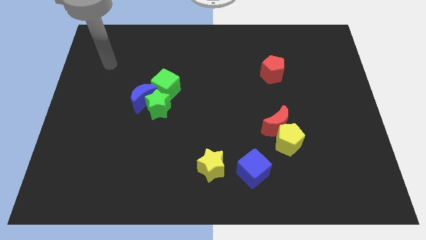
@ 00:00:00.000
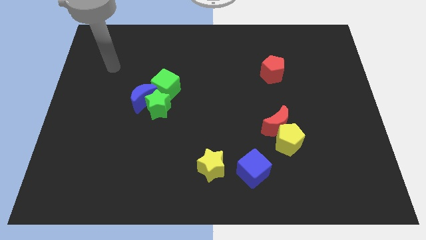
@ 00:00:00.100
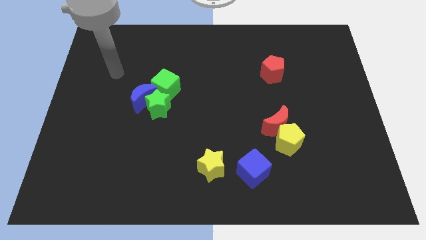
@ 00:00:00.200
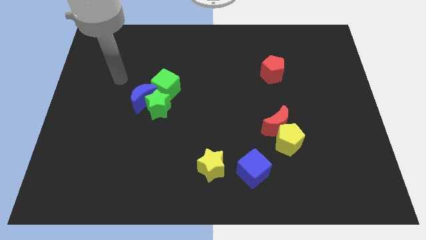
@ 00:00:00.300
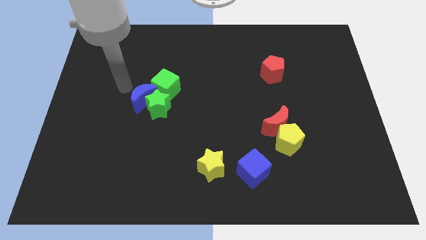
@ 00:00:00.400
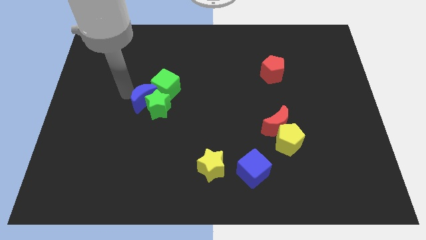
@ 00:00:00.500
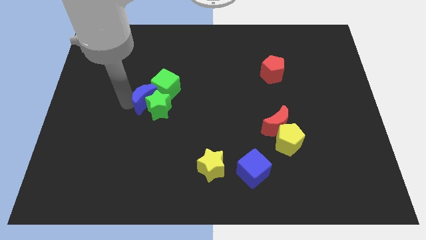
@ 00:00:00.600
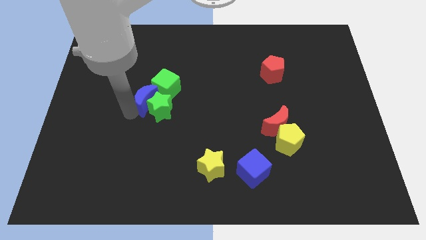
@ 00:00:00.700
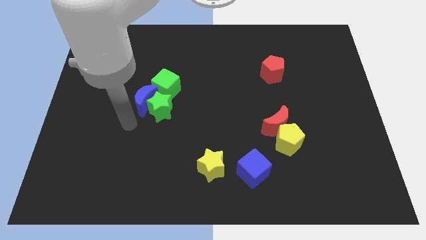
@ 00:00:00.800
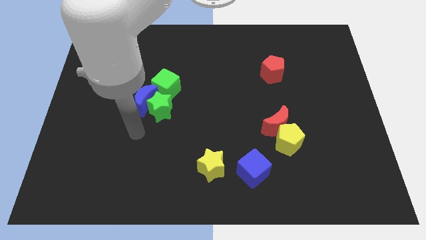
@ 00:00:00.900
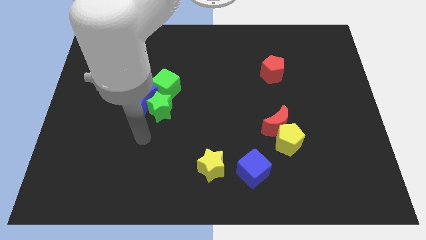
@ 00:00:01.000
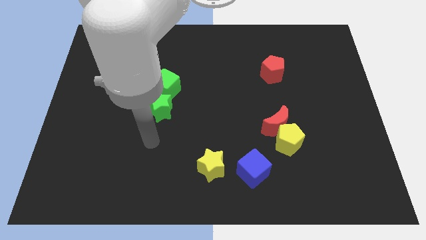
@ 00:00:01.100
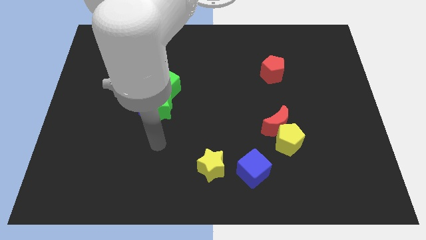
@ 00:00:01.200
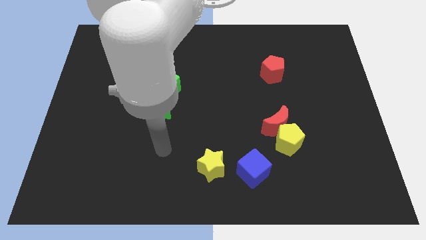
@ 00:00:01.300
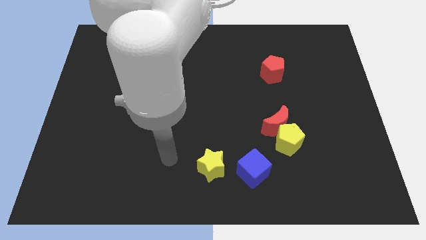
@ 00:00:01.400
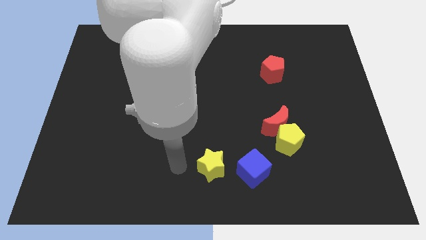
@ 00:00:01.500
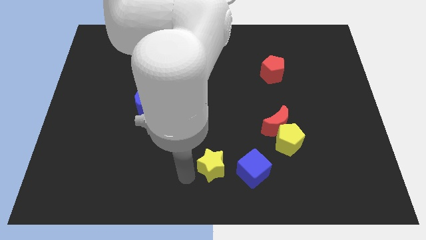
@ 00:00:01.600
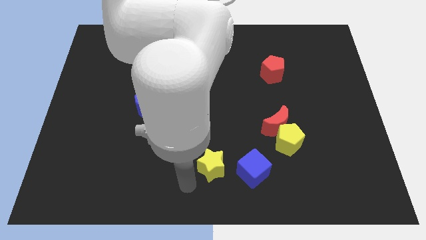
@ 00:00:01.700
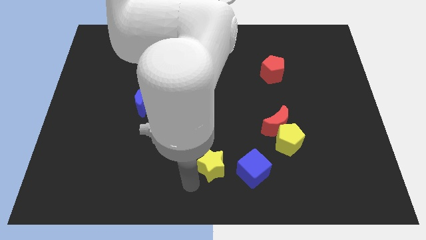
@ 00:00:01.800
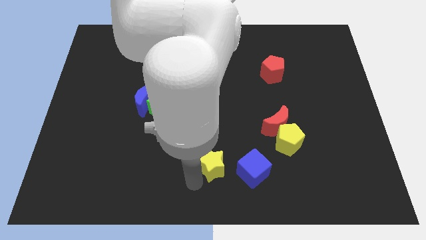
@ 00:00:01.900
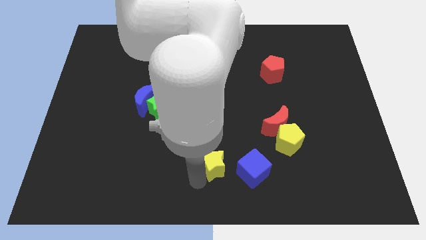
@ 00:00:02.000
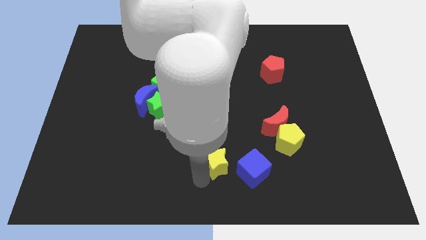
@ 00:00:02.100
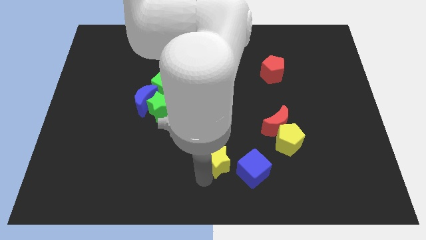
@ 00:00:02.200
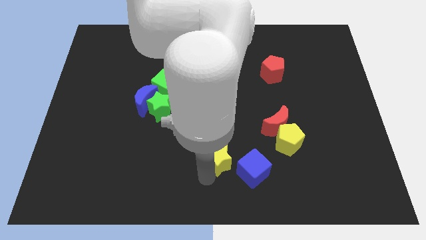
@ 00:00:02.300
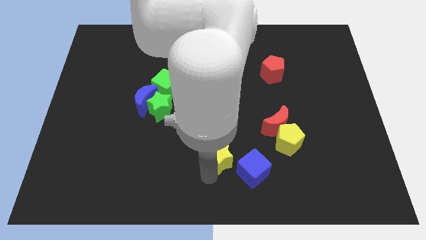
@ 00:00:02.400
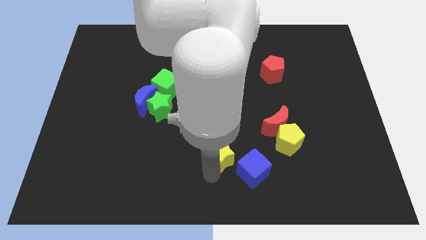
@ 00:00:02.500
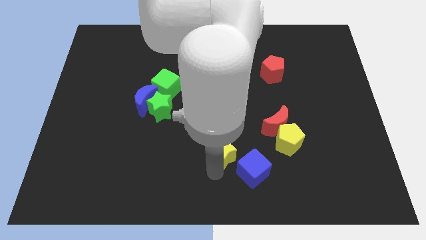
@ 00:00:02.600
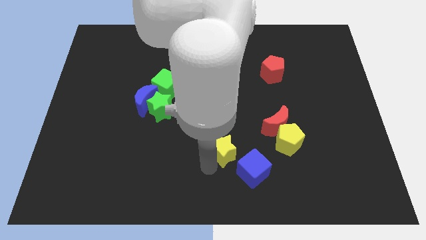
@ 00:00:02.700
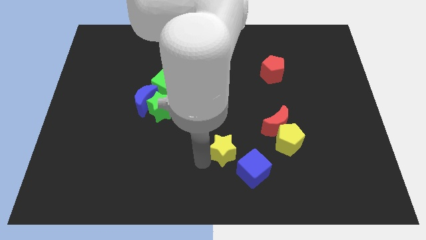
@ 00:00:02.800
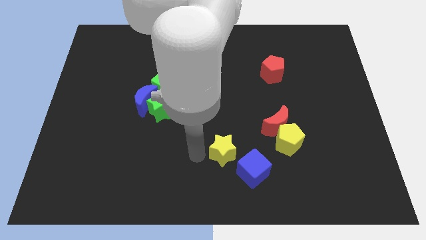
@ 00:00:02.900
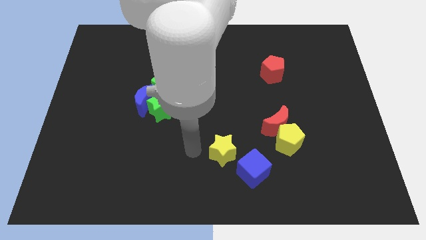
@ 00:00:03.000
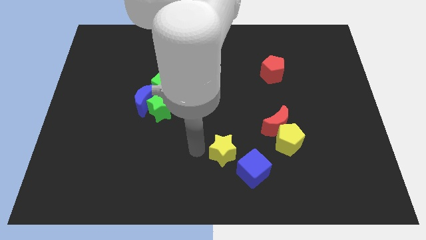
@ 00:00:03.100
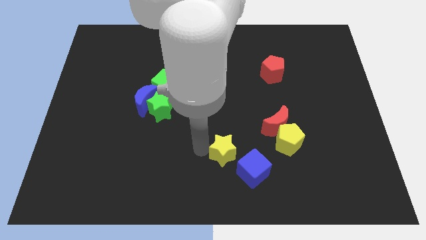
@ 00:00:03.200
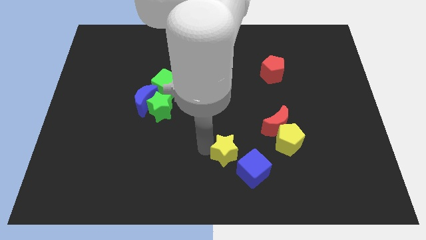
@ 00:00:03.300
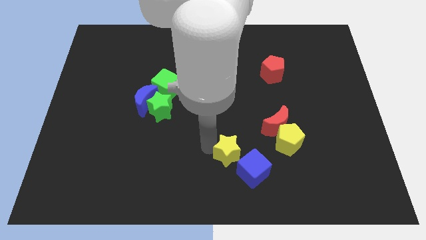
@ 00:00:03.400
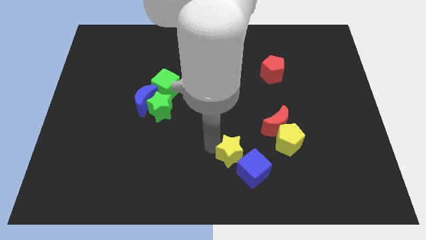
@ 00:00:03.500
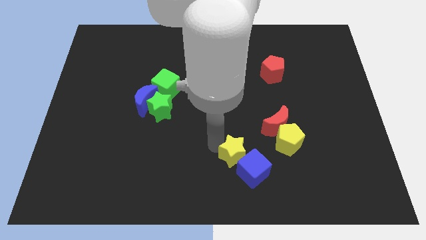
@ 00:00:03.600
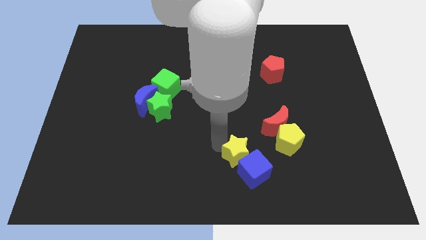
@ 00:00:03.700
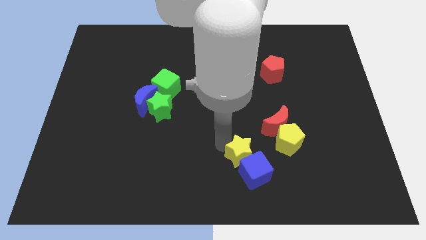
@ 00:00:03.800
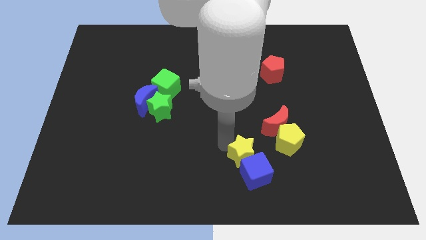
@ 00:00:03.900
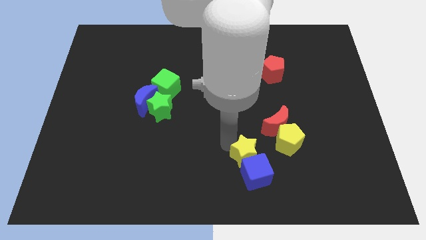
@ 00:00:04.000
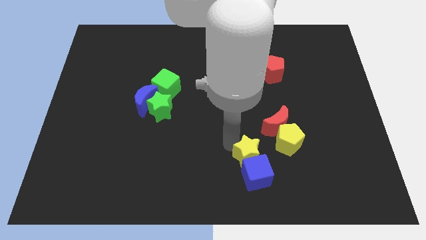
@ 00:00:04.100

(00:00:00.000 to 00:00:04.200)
push the yellow star to the right a bit

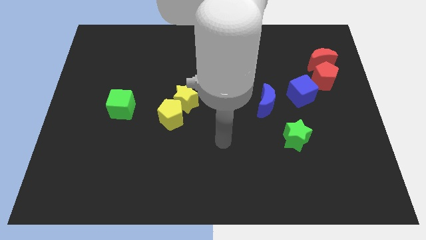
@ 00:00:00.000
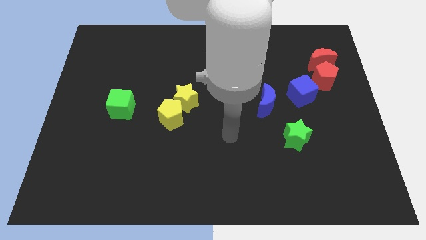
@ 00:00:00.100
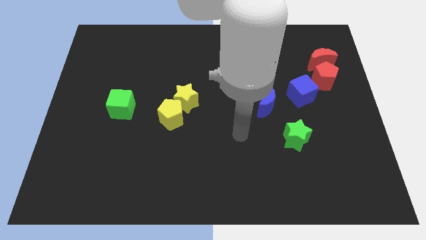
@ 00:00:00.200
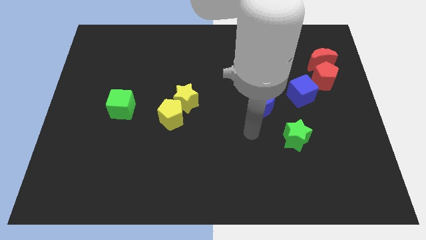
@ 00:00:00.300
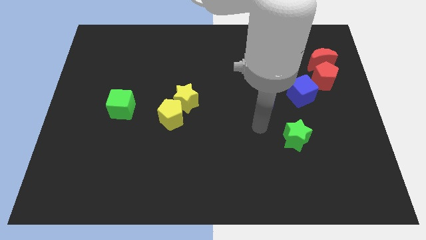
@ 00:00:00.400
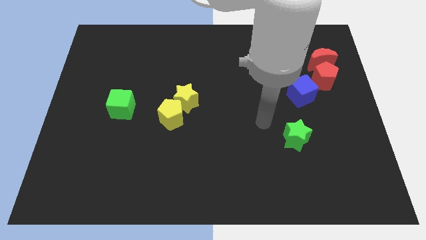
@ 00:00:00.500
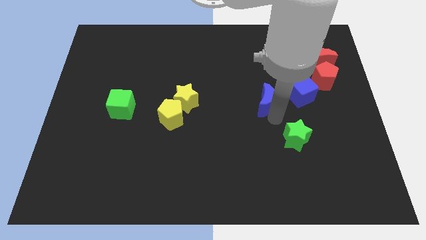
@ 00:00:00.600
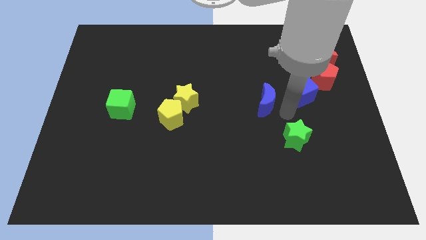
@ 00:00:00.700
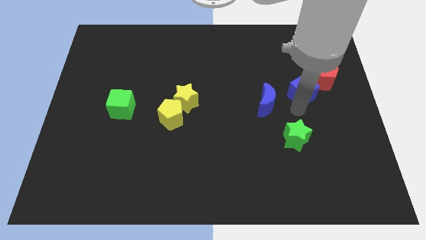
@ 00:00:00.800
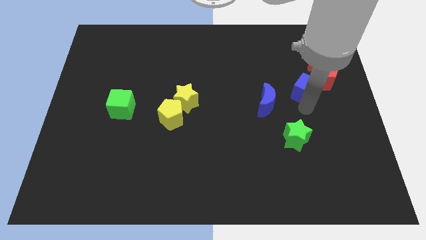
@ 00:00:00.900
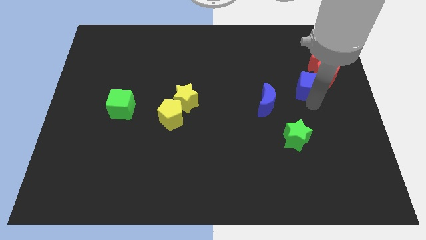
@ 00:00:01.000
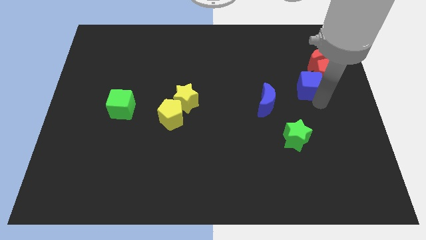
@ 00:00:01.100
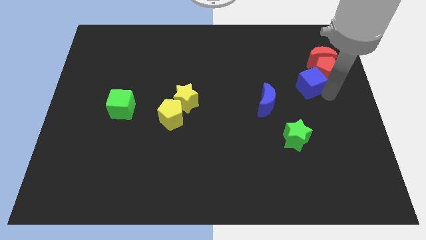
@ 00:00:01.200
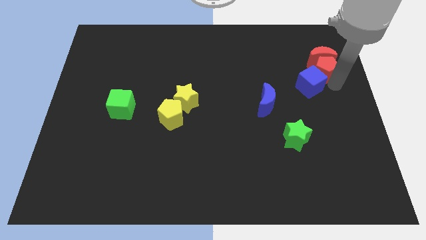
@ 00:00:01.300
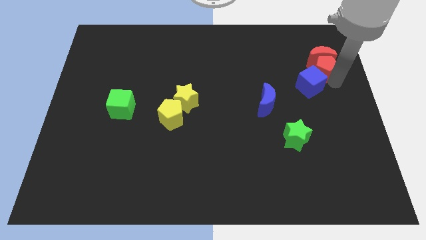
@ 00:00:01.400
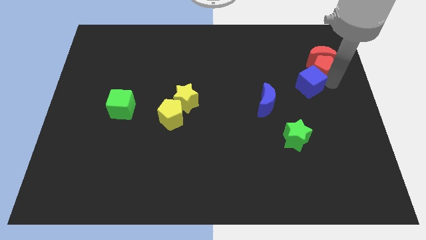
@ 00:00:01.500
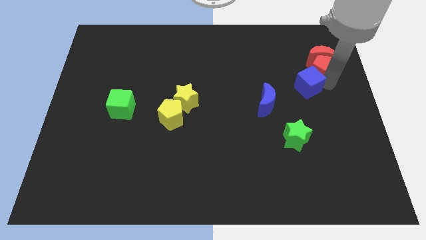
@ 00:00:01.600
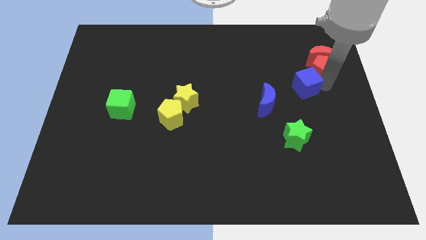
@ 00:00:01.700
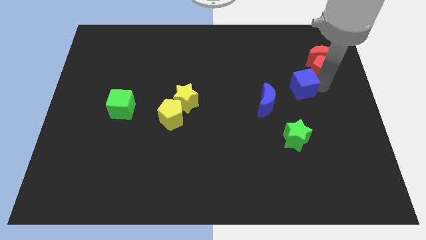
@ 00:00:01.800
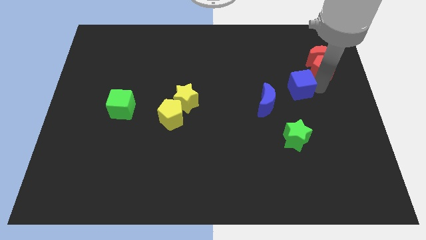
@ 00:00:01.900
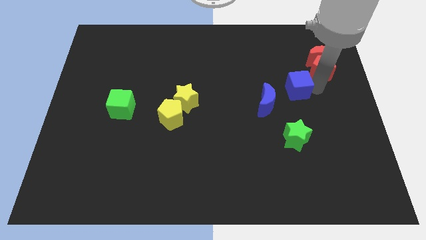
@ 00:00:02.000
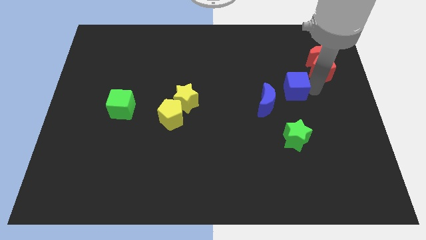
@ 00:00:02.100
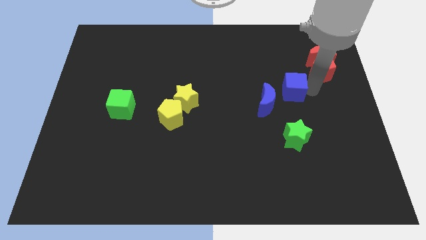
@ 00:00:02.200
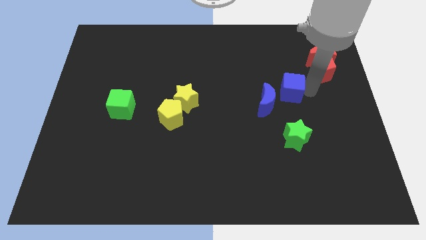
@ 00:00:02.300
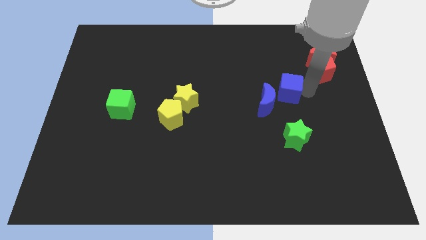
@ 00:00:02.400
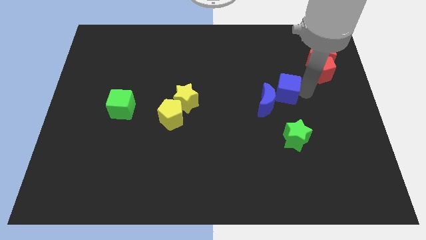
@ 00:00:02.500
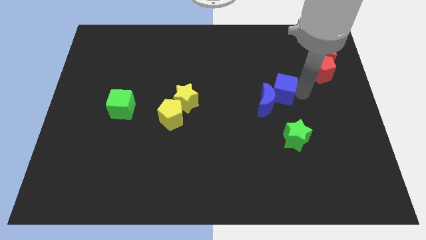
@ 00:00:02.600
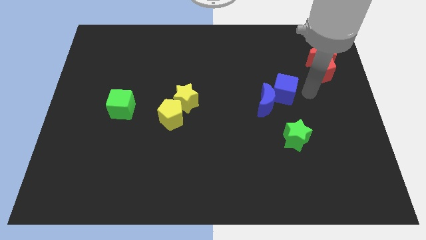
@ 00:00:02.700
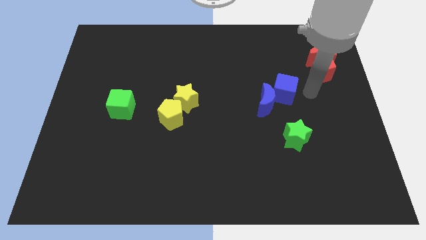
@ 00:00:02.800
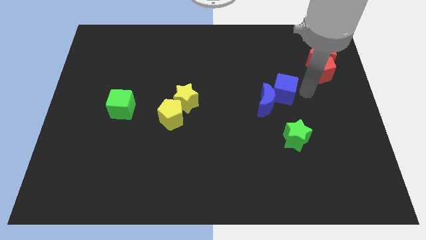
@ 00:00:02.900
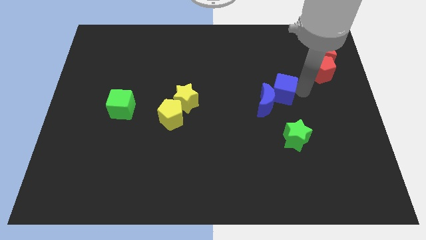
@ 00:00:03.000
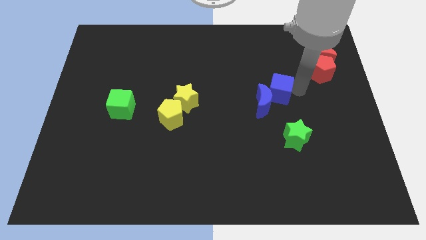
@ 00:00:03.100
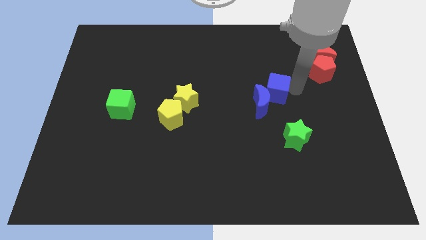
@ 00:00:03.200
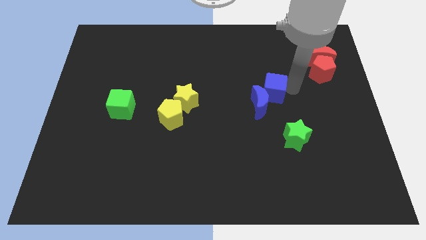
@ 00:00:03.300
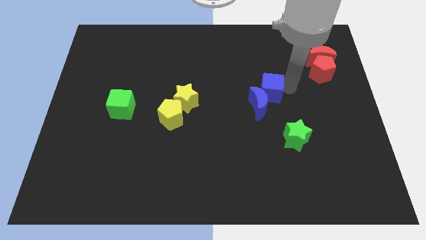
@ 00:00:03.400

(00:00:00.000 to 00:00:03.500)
move the blue cube to the left a little bit

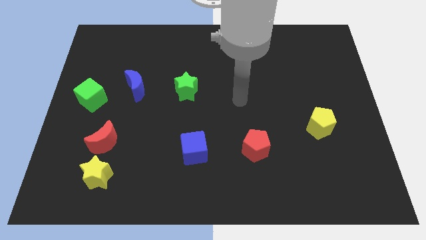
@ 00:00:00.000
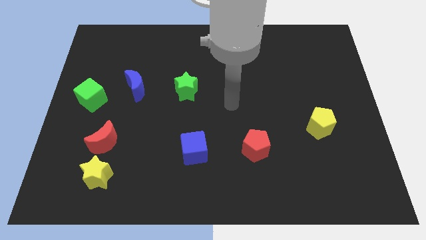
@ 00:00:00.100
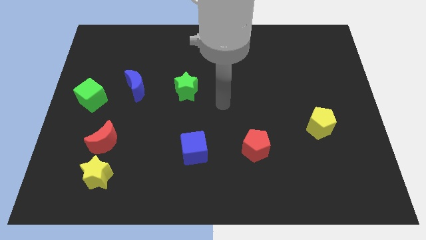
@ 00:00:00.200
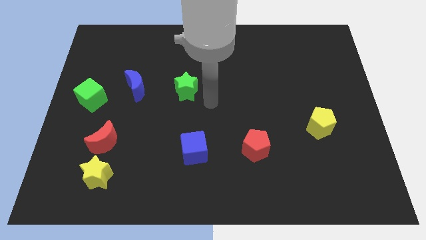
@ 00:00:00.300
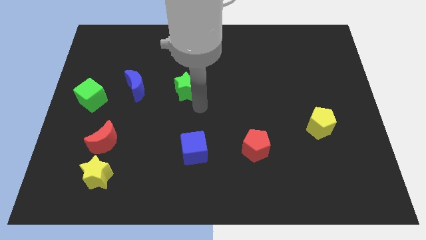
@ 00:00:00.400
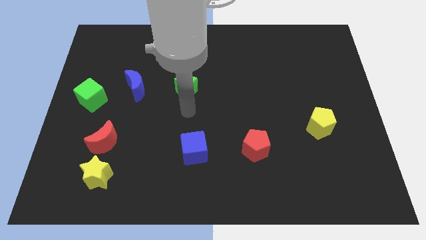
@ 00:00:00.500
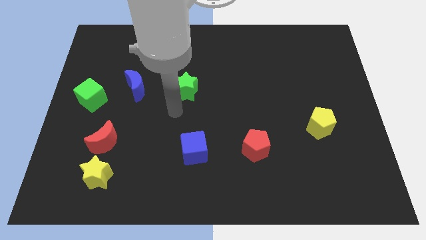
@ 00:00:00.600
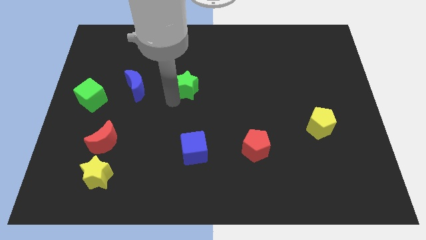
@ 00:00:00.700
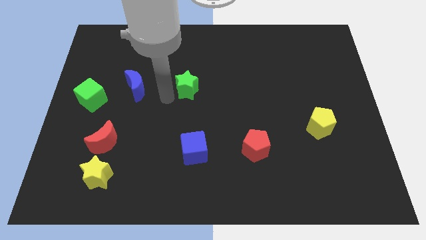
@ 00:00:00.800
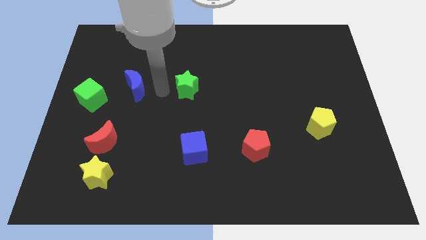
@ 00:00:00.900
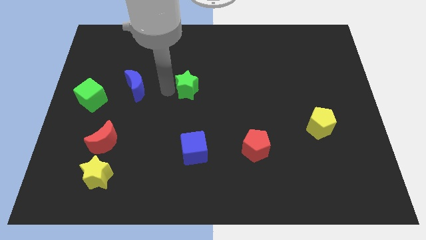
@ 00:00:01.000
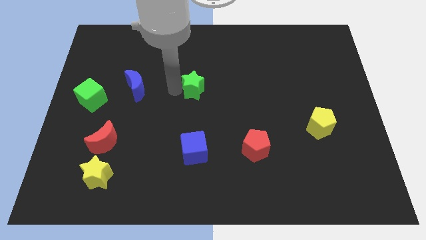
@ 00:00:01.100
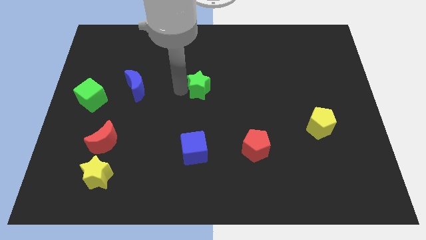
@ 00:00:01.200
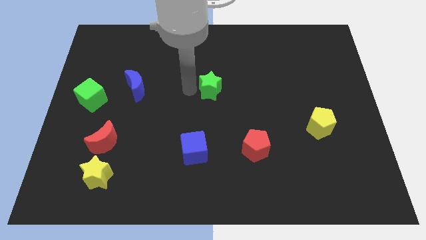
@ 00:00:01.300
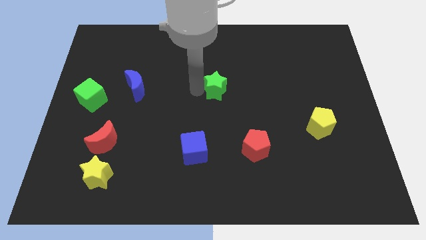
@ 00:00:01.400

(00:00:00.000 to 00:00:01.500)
slightly move the green star to the right
